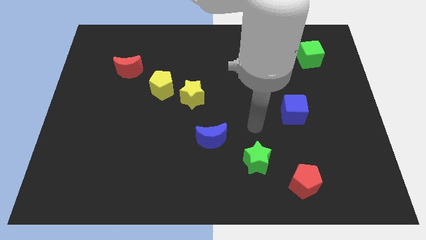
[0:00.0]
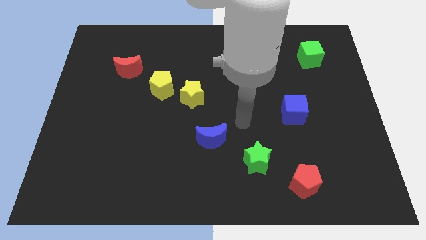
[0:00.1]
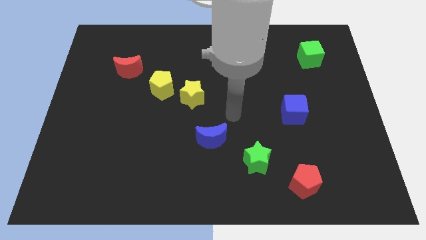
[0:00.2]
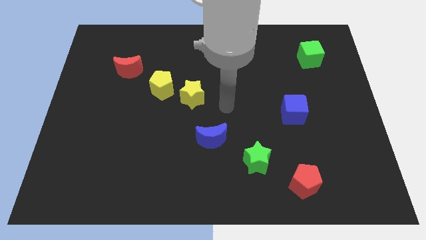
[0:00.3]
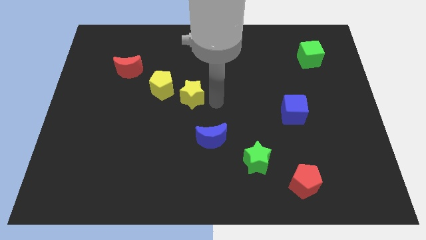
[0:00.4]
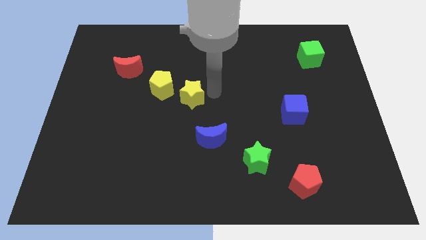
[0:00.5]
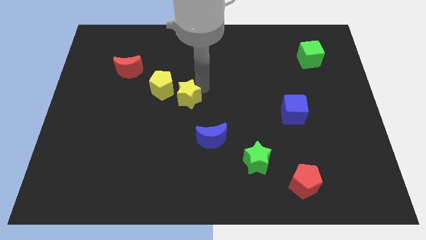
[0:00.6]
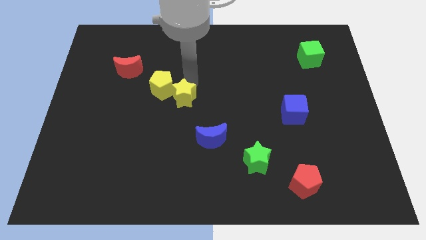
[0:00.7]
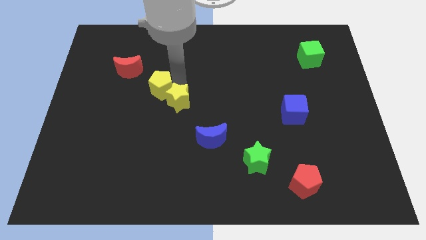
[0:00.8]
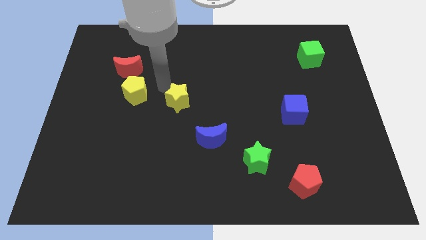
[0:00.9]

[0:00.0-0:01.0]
move the yellow star away from the yellow pentagon

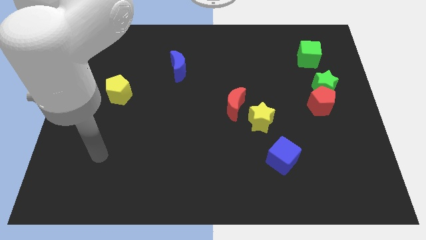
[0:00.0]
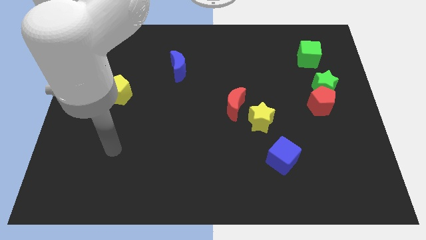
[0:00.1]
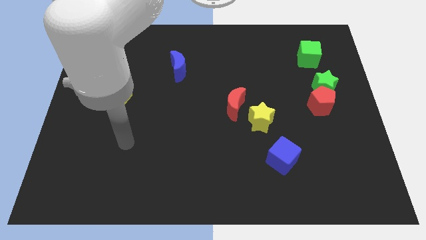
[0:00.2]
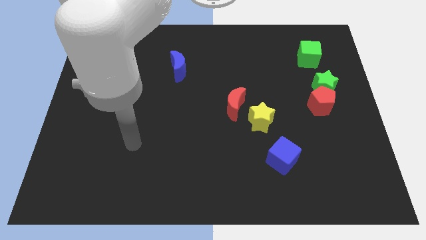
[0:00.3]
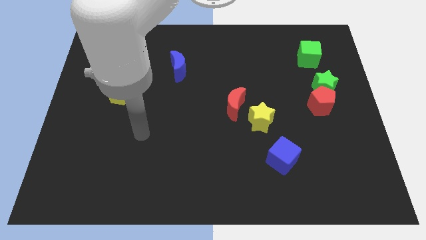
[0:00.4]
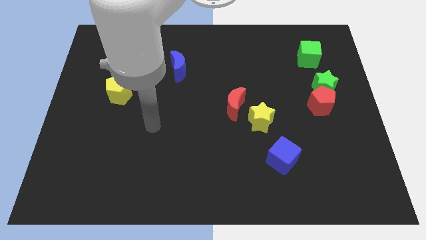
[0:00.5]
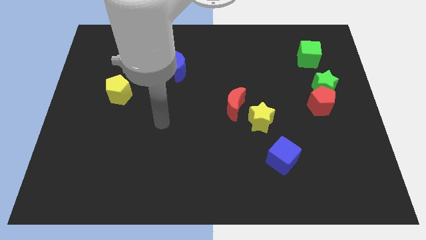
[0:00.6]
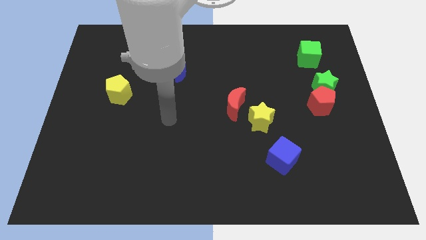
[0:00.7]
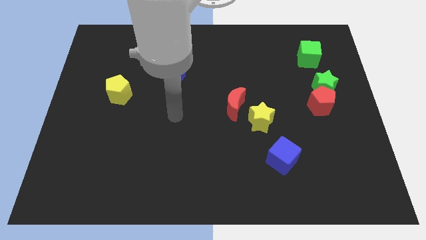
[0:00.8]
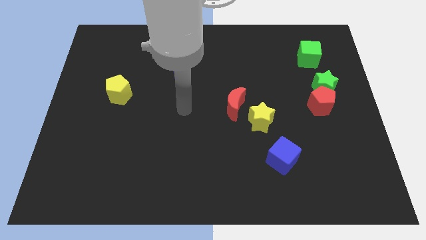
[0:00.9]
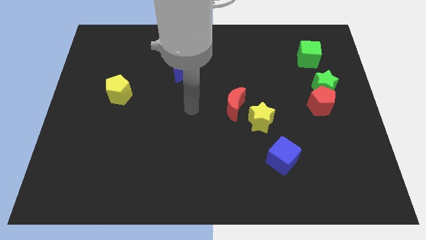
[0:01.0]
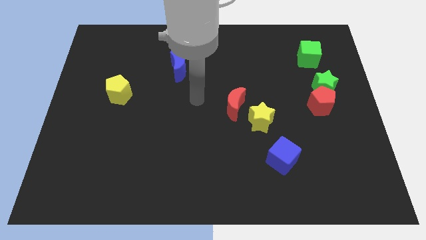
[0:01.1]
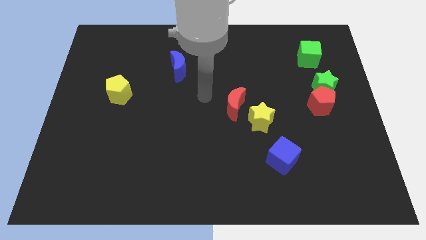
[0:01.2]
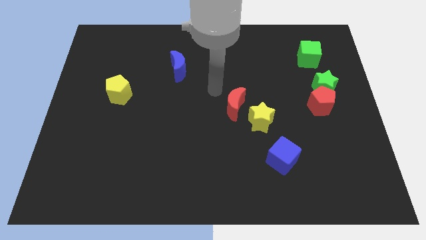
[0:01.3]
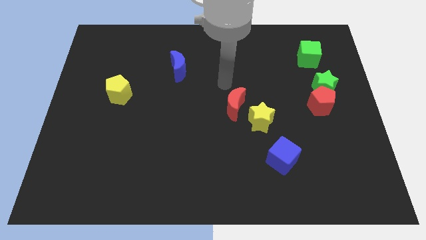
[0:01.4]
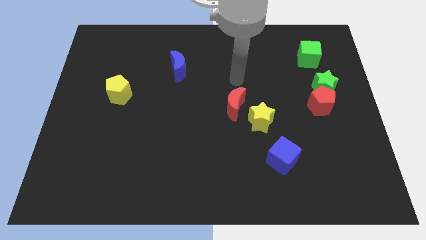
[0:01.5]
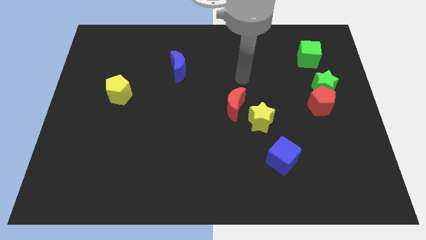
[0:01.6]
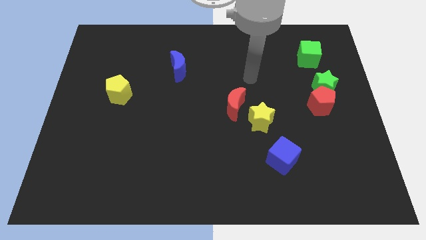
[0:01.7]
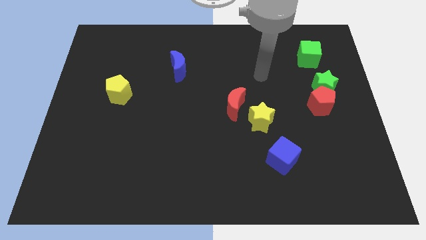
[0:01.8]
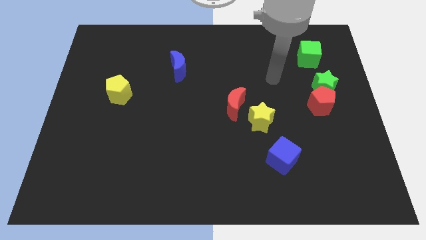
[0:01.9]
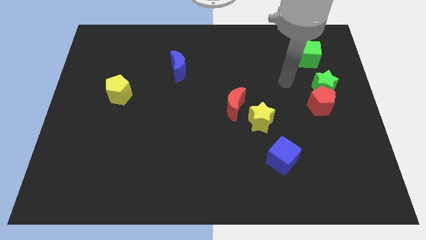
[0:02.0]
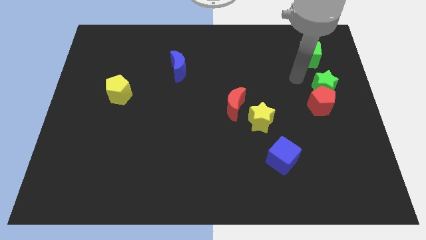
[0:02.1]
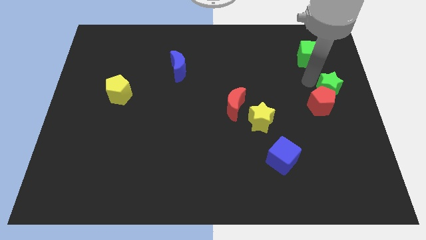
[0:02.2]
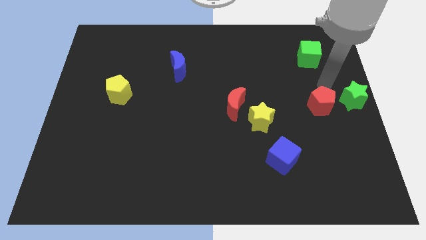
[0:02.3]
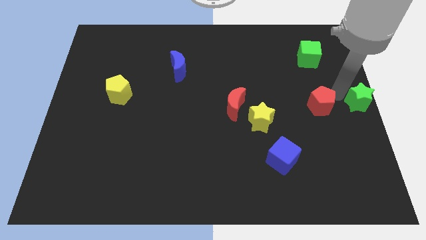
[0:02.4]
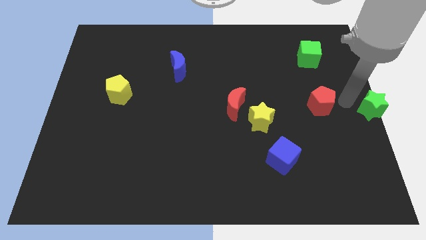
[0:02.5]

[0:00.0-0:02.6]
move the red pentagon away from the green star

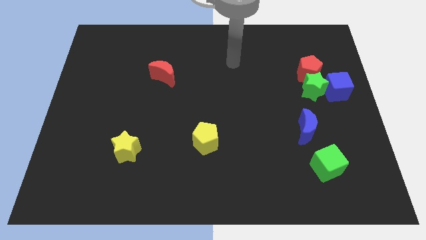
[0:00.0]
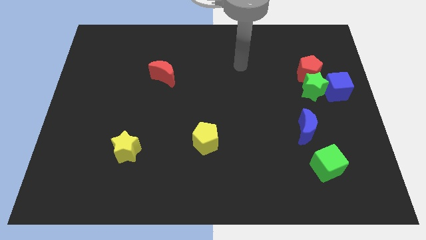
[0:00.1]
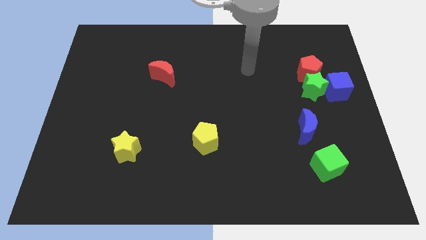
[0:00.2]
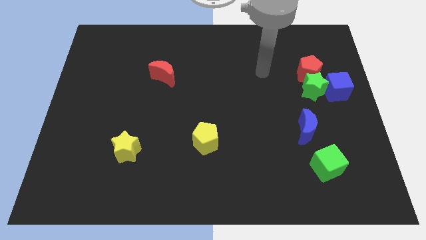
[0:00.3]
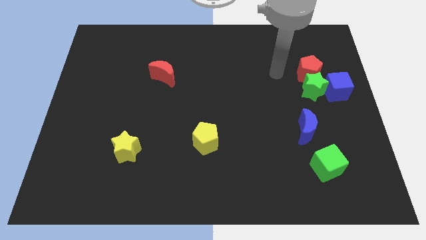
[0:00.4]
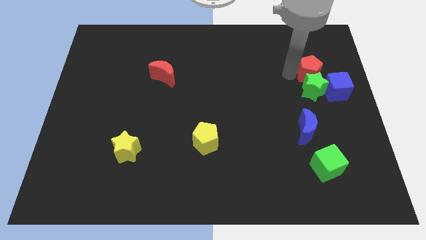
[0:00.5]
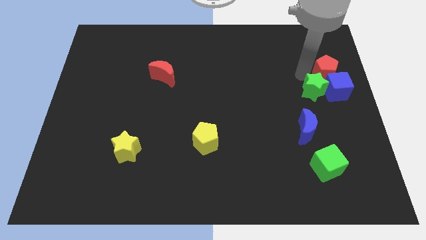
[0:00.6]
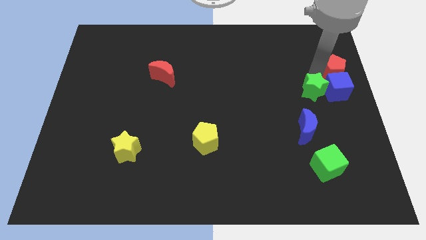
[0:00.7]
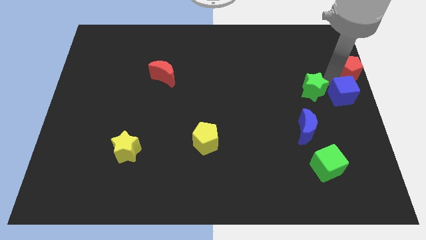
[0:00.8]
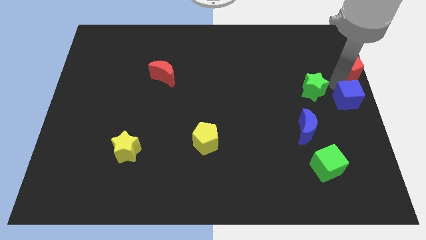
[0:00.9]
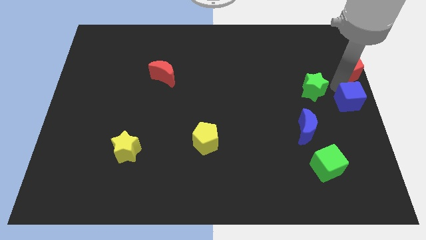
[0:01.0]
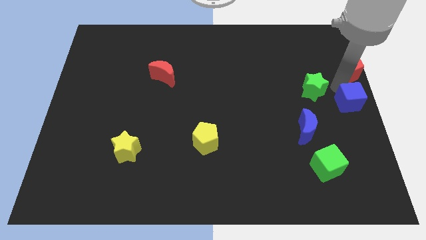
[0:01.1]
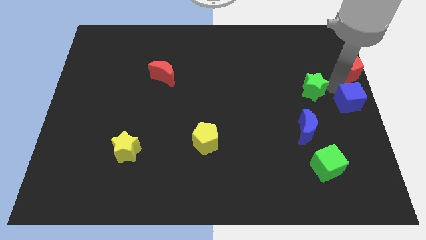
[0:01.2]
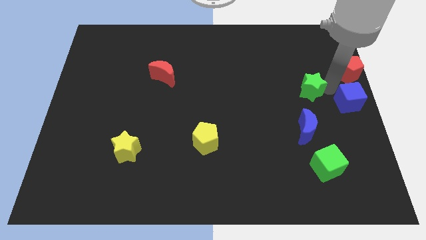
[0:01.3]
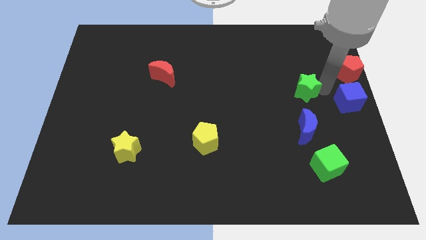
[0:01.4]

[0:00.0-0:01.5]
pull the green star apart from the blue cube and red pentagon

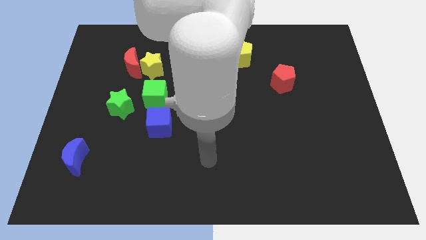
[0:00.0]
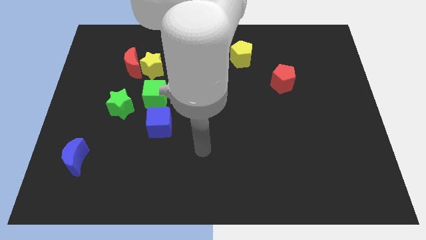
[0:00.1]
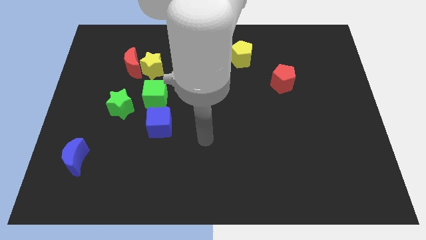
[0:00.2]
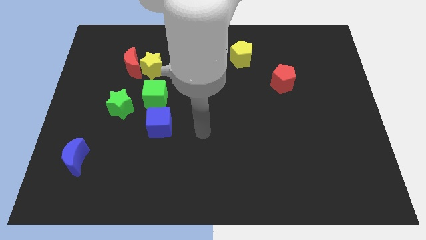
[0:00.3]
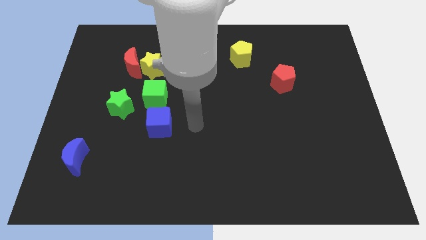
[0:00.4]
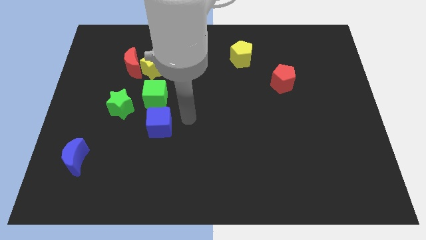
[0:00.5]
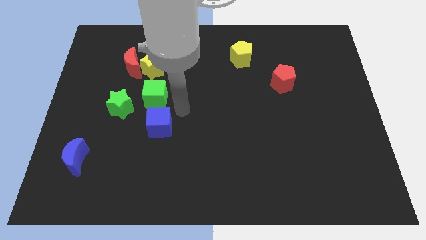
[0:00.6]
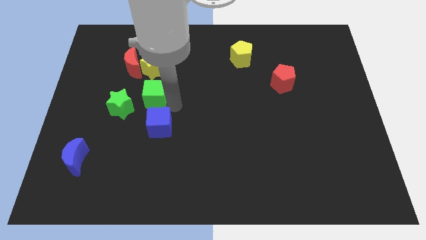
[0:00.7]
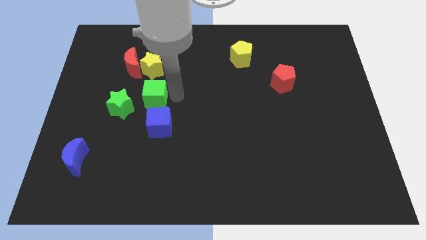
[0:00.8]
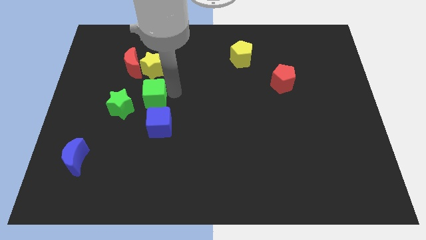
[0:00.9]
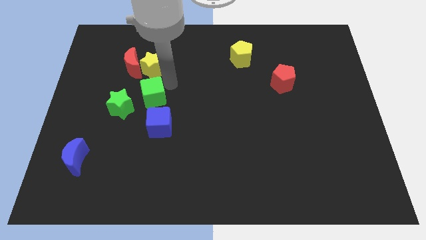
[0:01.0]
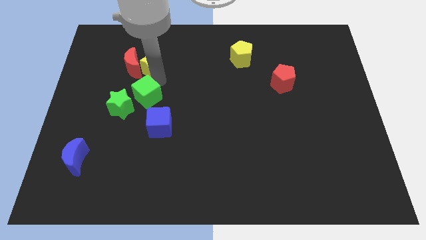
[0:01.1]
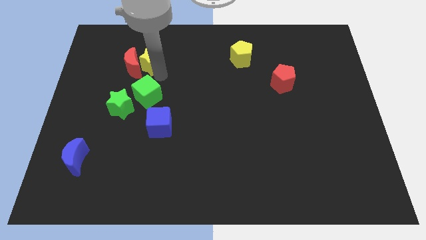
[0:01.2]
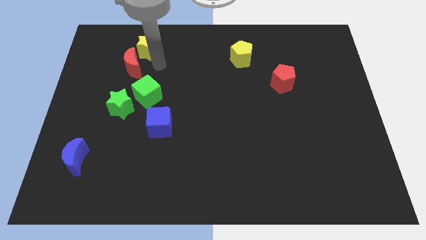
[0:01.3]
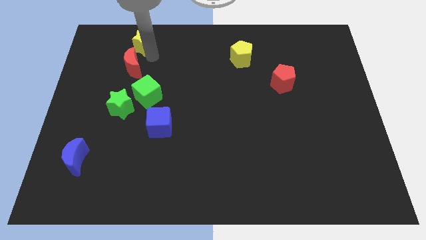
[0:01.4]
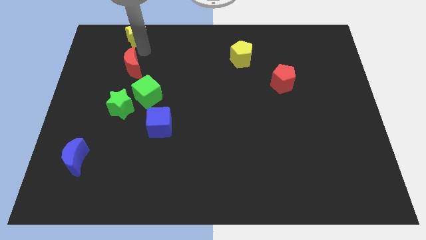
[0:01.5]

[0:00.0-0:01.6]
pull the red moon apart from the yellow star

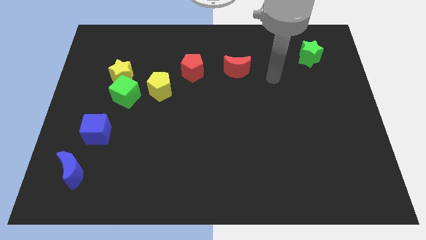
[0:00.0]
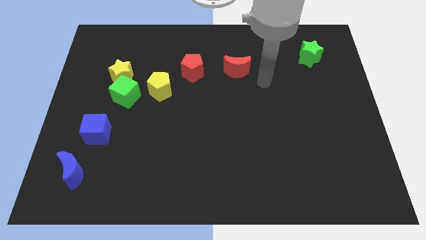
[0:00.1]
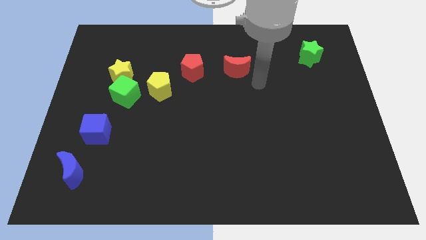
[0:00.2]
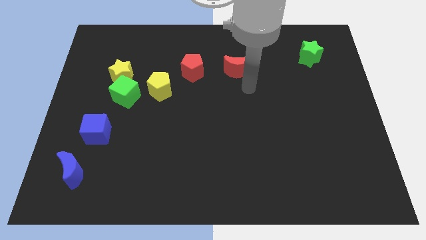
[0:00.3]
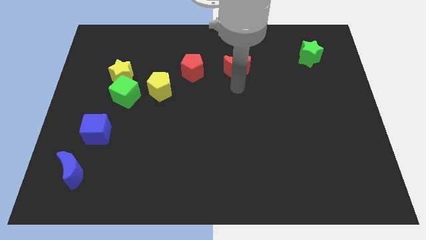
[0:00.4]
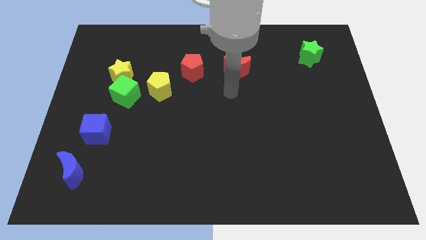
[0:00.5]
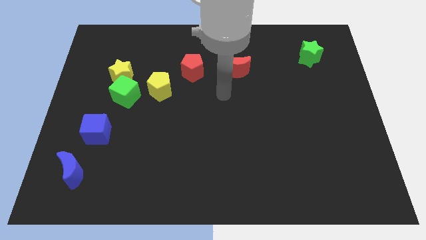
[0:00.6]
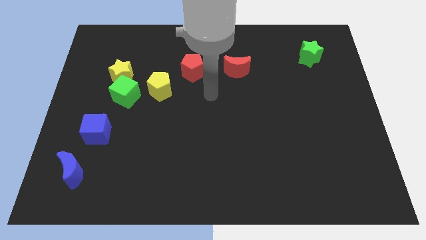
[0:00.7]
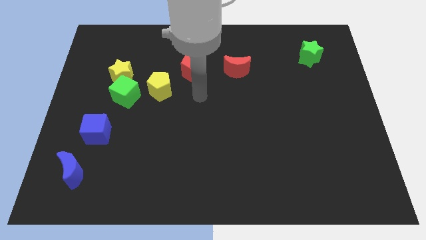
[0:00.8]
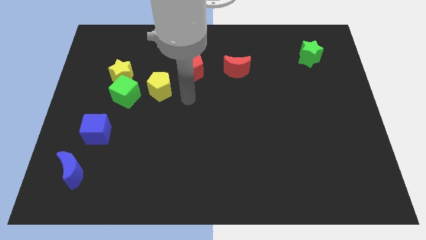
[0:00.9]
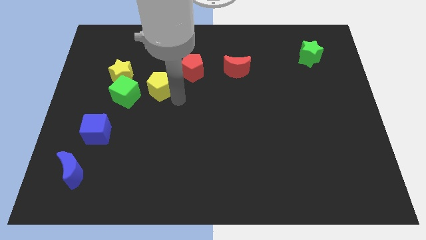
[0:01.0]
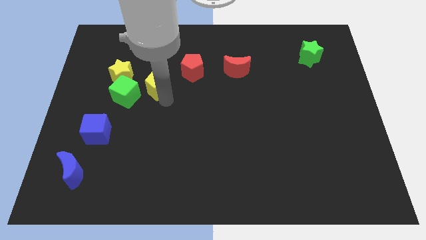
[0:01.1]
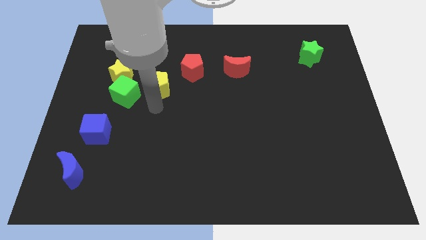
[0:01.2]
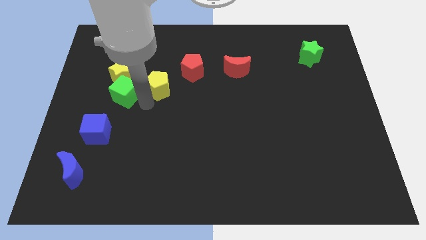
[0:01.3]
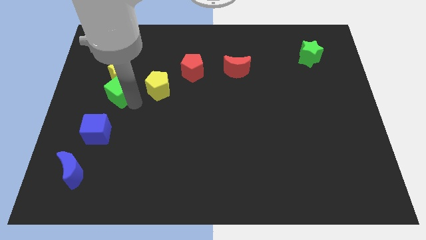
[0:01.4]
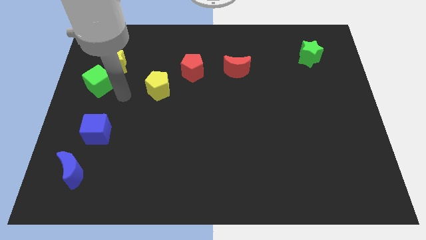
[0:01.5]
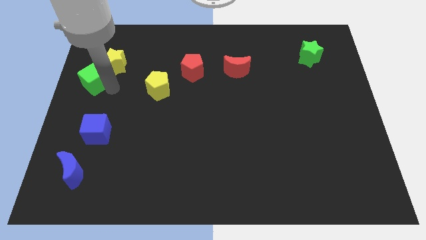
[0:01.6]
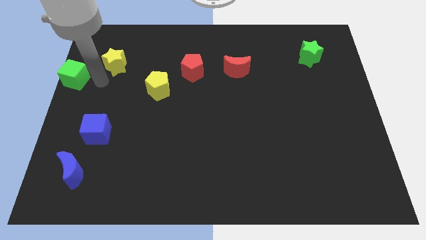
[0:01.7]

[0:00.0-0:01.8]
separate the yellow star from the green cube

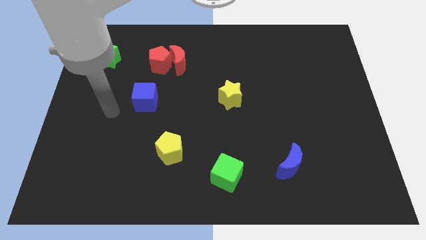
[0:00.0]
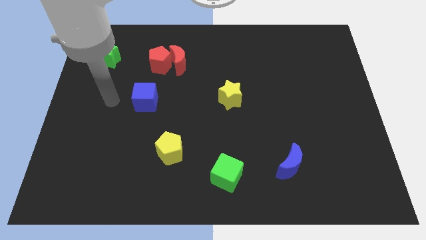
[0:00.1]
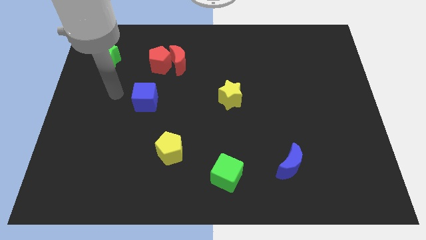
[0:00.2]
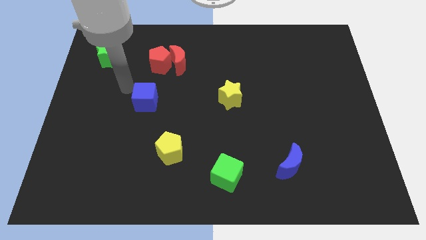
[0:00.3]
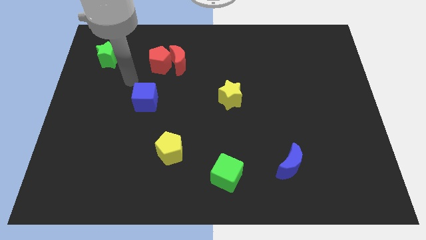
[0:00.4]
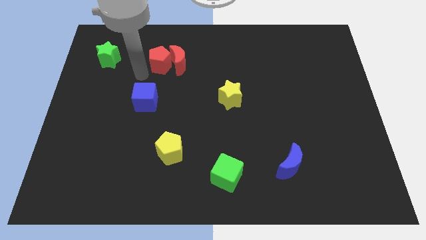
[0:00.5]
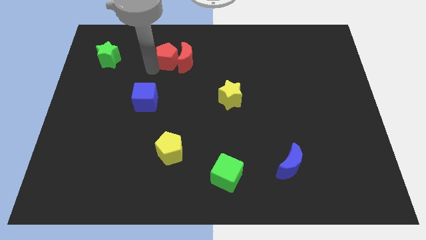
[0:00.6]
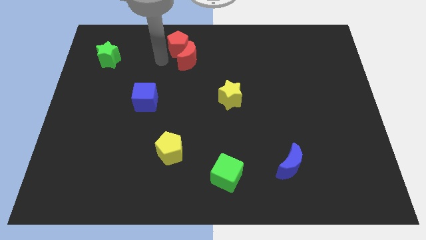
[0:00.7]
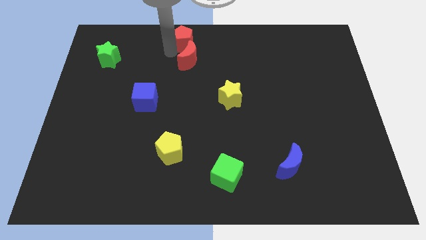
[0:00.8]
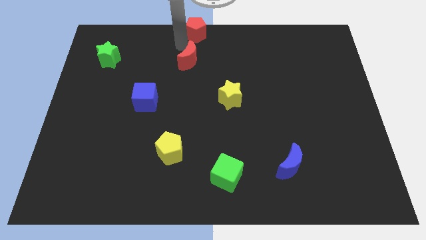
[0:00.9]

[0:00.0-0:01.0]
separate the red moon from the red pentagon

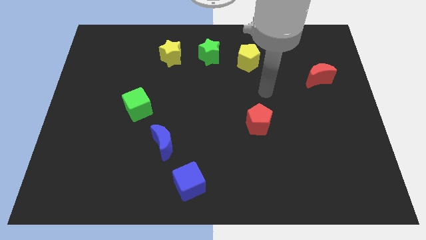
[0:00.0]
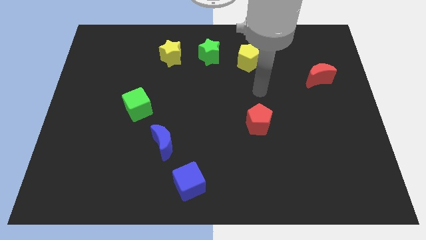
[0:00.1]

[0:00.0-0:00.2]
separate the yellow pentagon from the green star
